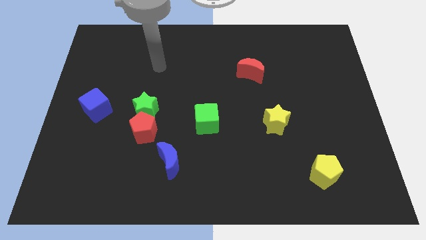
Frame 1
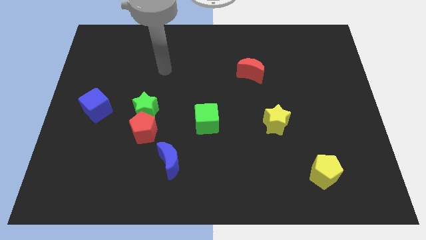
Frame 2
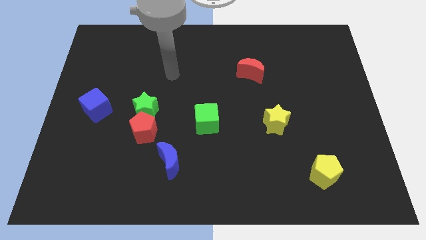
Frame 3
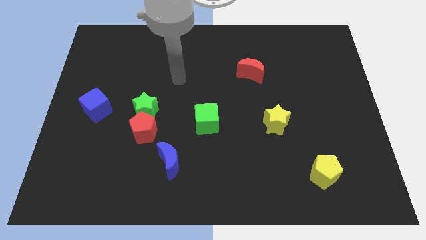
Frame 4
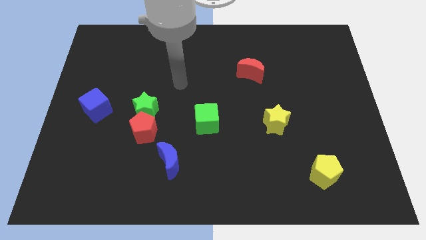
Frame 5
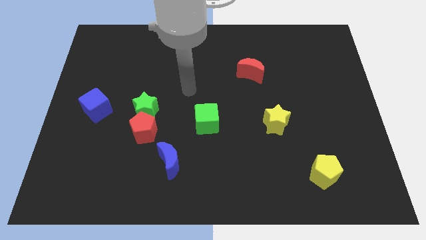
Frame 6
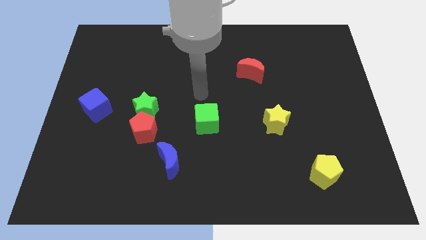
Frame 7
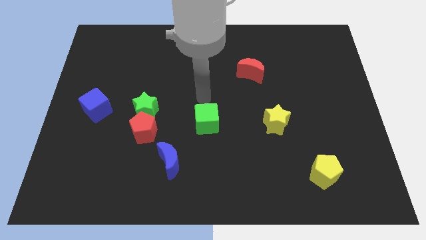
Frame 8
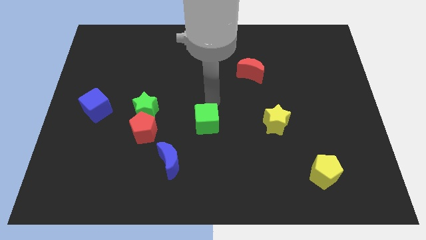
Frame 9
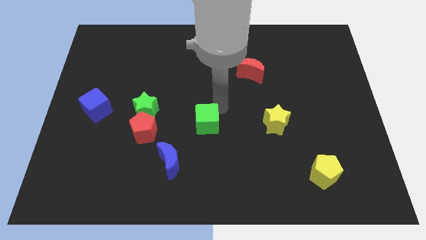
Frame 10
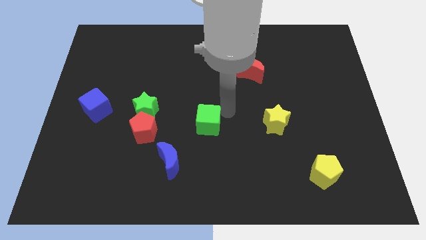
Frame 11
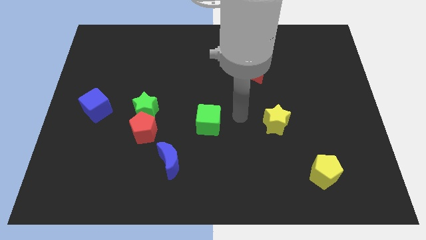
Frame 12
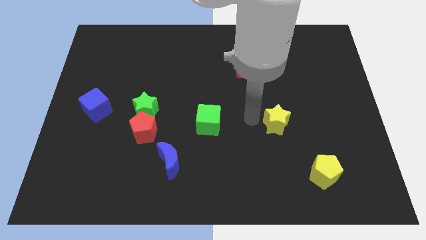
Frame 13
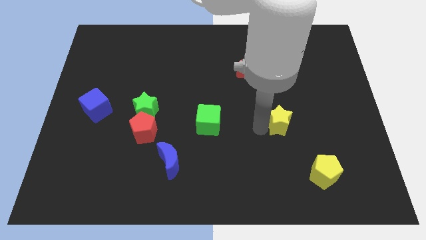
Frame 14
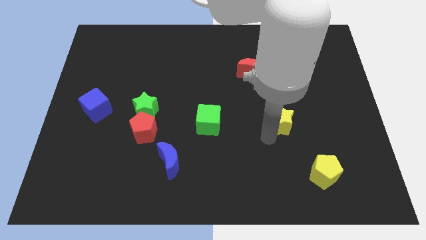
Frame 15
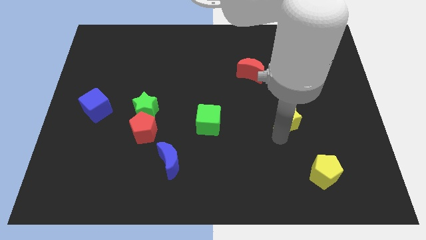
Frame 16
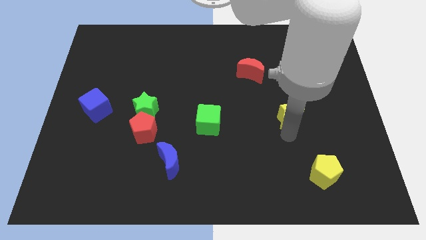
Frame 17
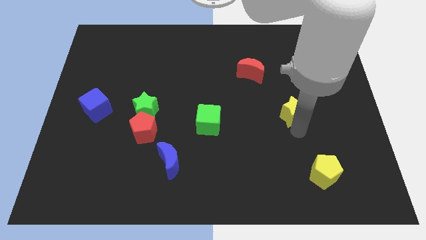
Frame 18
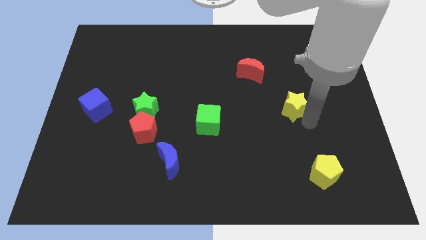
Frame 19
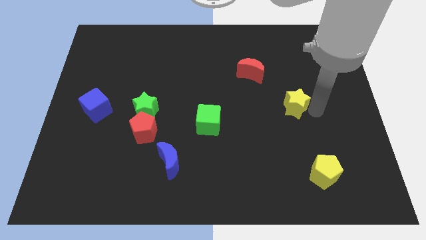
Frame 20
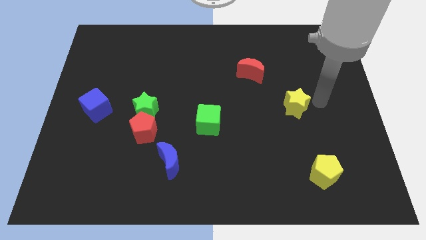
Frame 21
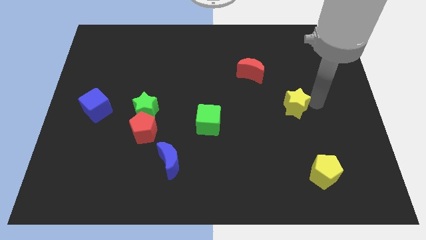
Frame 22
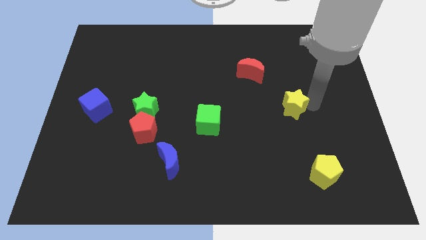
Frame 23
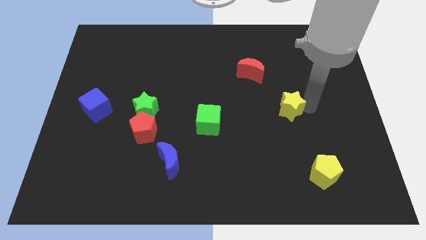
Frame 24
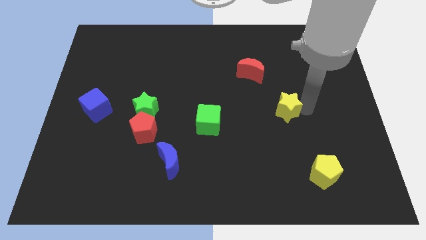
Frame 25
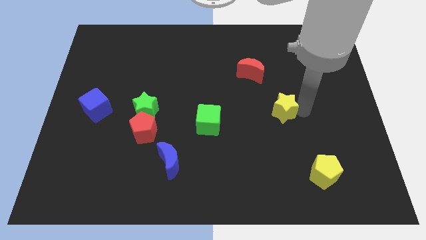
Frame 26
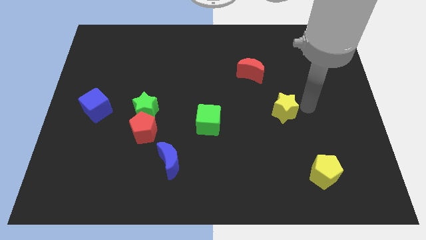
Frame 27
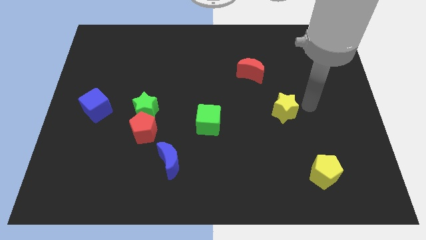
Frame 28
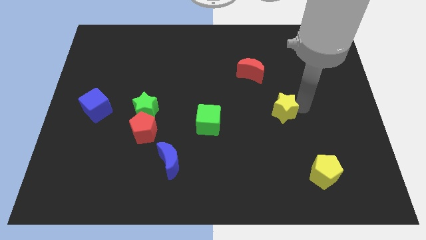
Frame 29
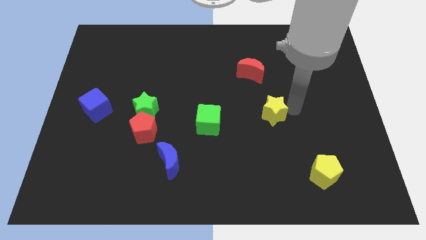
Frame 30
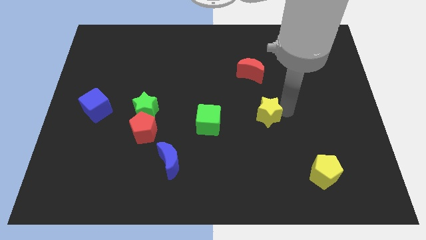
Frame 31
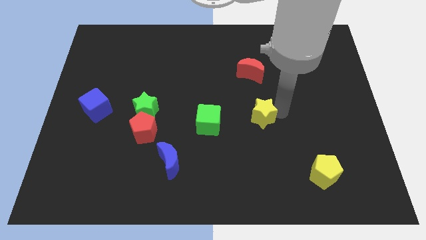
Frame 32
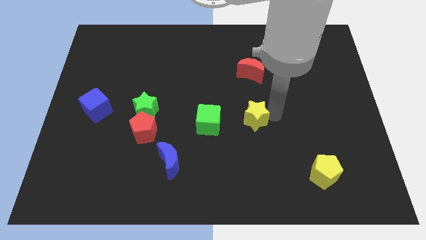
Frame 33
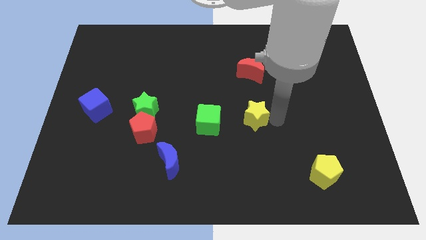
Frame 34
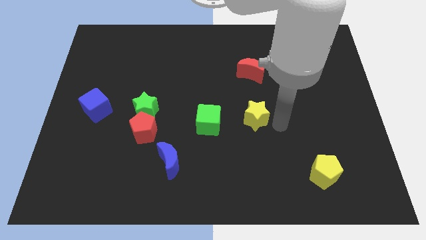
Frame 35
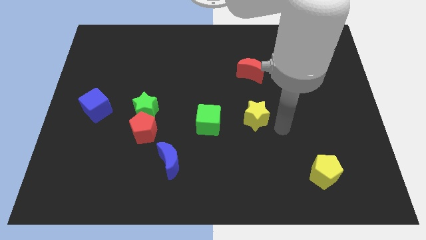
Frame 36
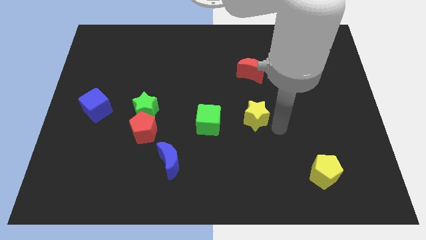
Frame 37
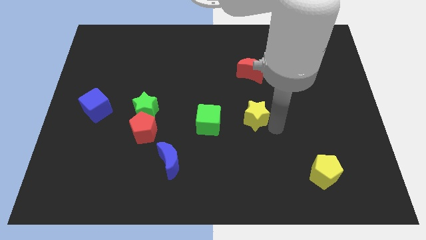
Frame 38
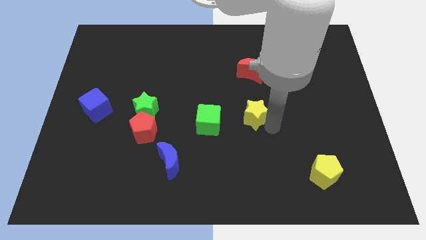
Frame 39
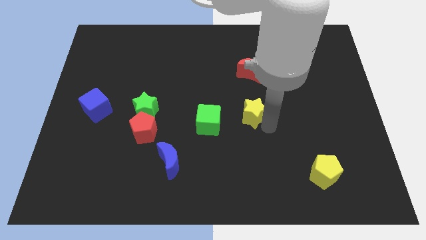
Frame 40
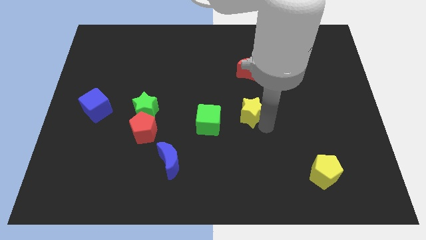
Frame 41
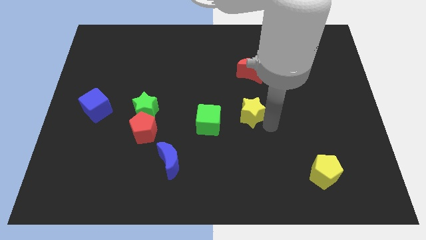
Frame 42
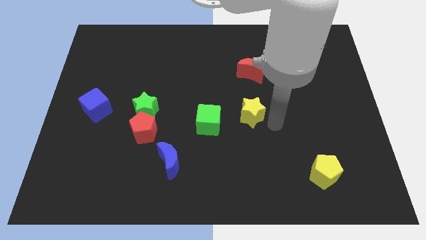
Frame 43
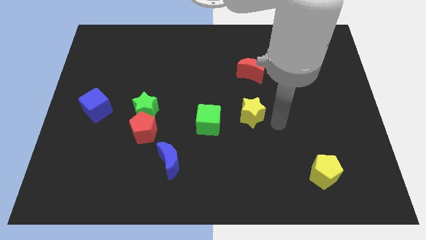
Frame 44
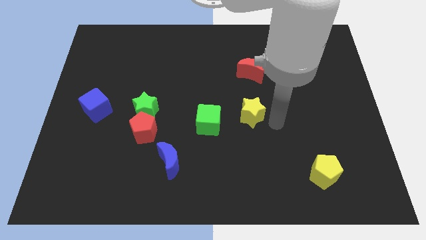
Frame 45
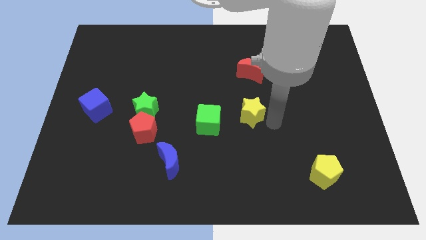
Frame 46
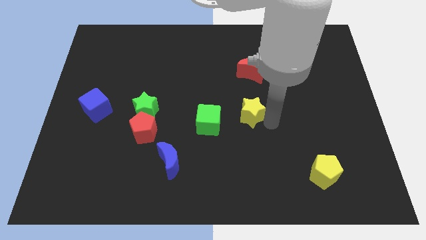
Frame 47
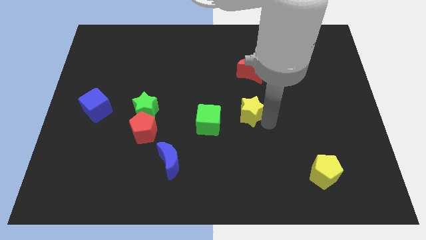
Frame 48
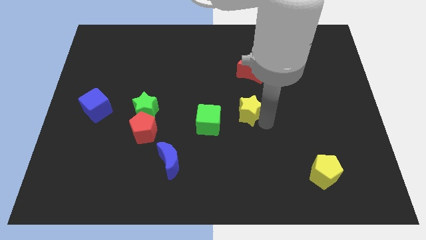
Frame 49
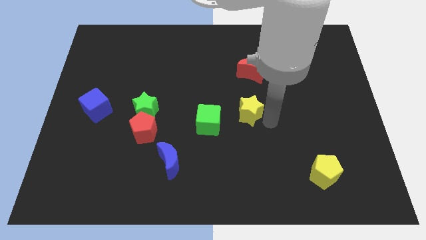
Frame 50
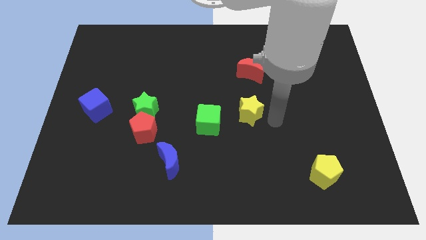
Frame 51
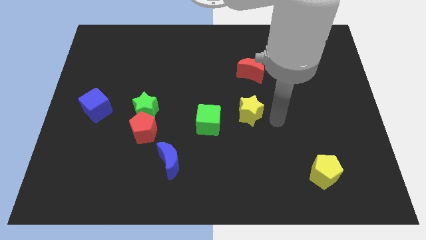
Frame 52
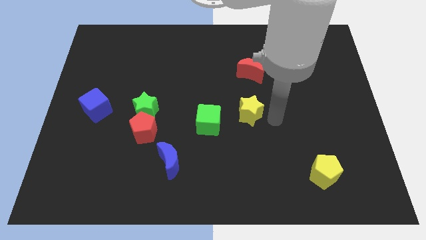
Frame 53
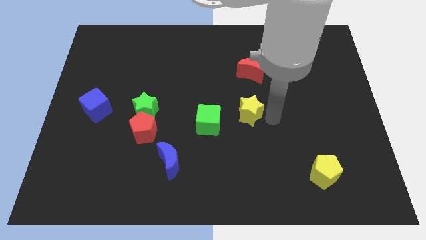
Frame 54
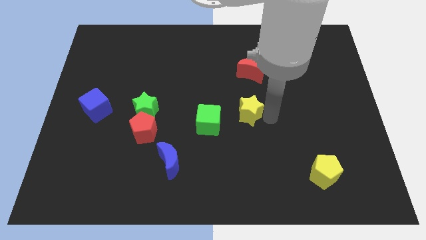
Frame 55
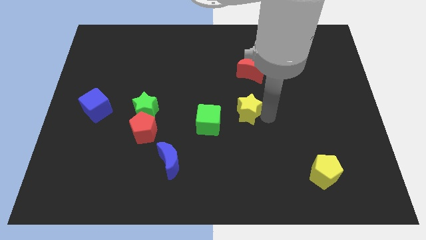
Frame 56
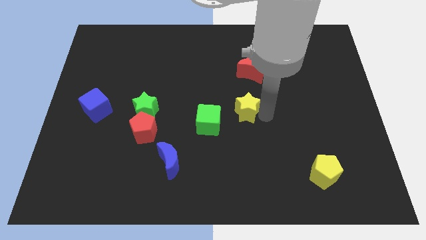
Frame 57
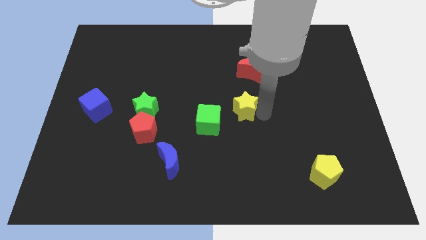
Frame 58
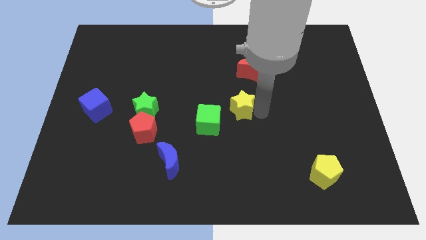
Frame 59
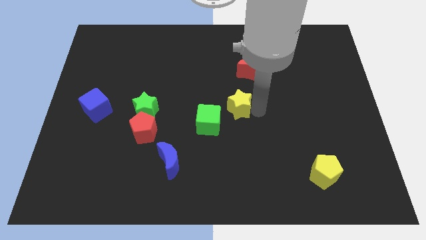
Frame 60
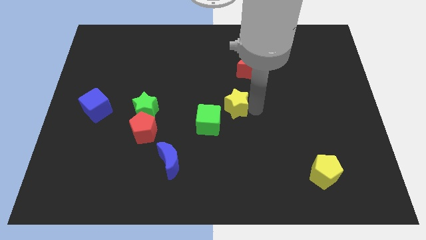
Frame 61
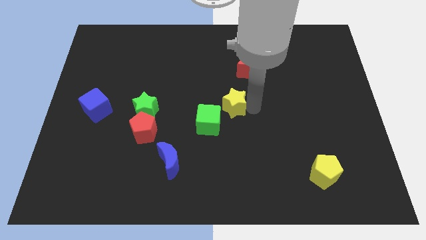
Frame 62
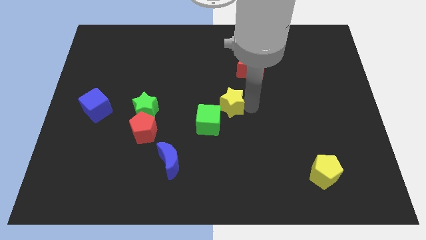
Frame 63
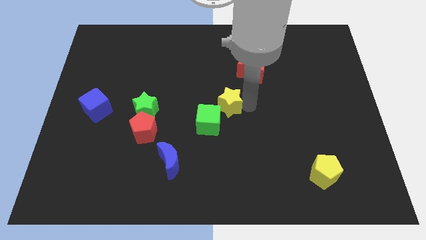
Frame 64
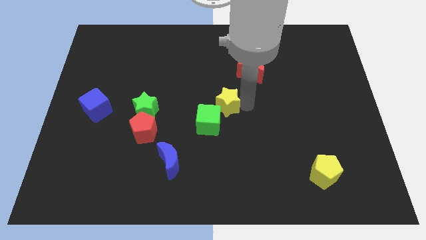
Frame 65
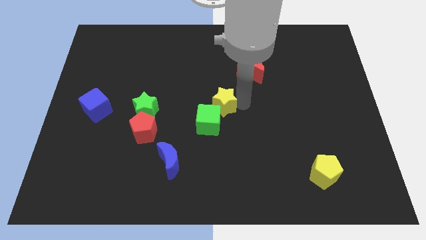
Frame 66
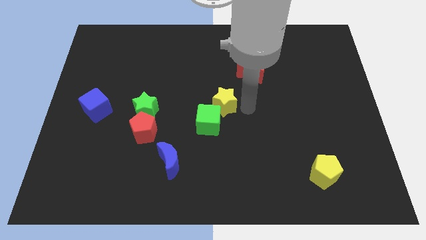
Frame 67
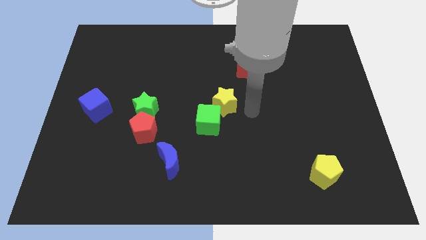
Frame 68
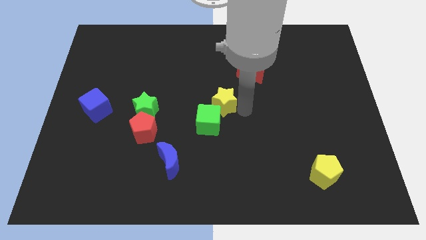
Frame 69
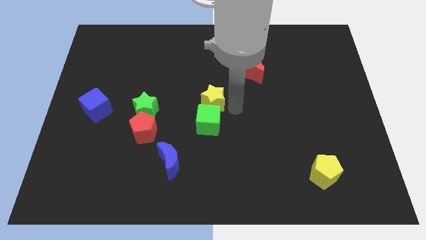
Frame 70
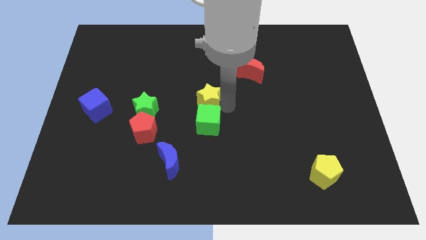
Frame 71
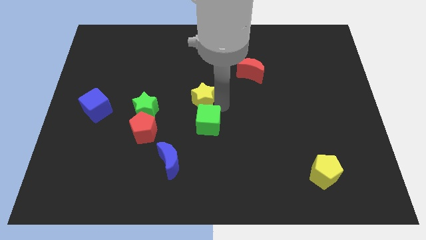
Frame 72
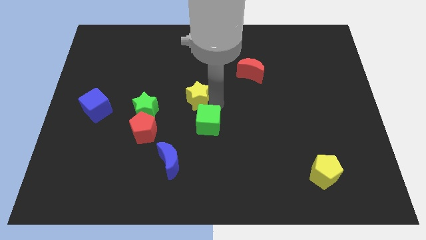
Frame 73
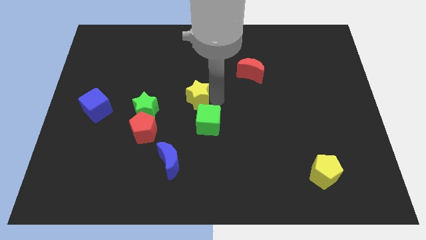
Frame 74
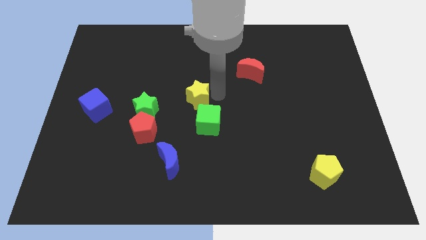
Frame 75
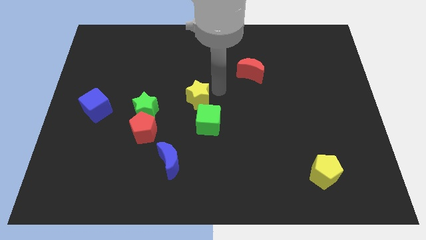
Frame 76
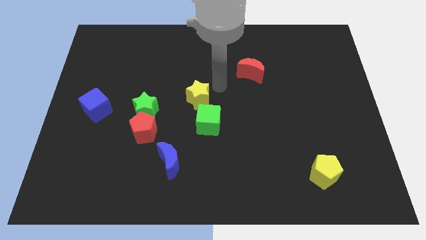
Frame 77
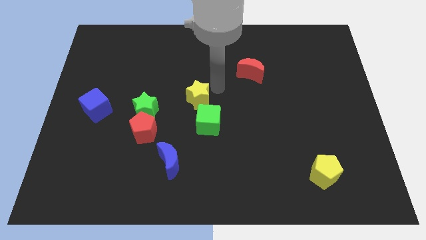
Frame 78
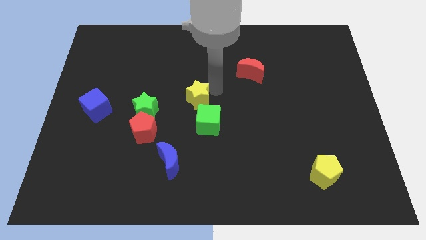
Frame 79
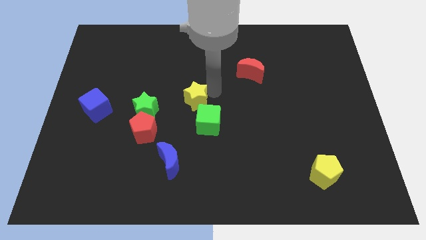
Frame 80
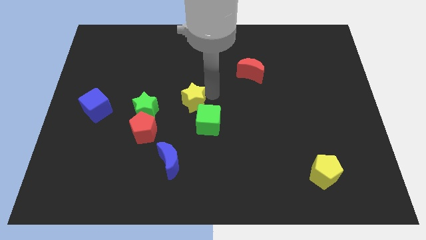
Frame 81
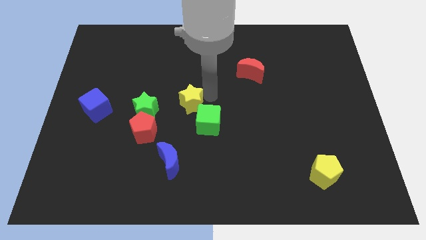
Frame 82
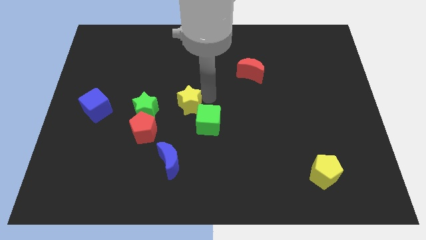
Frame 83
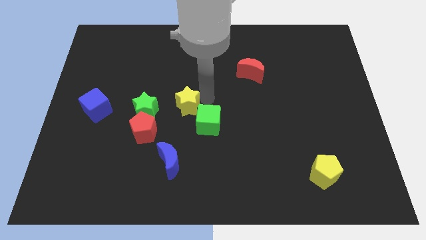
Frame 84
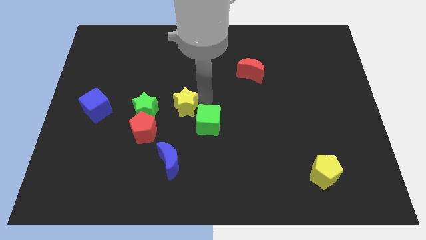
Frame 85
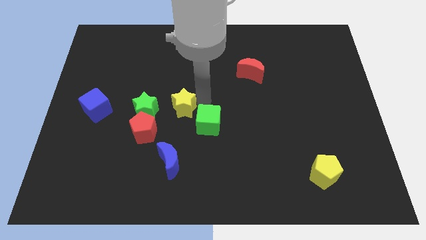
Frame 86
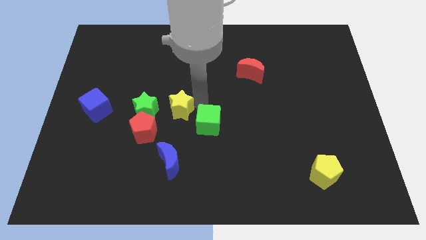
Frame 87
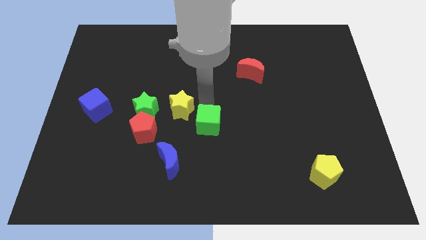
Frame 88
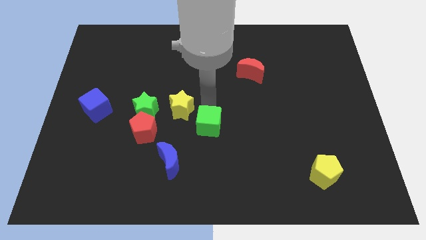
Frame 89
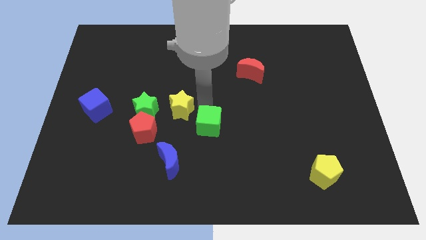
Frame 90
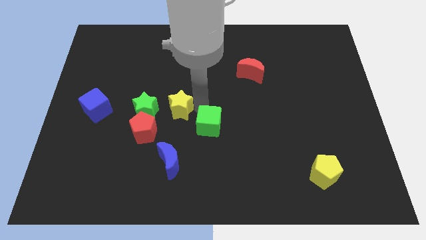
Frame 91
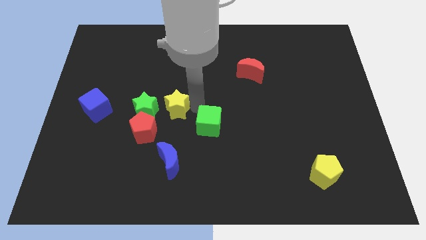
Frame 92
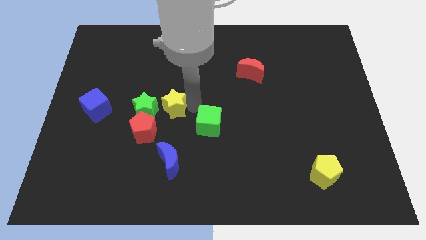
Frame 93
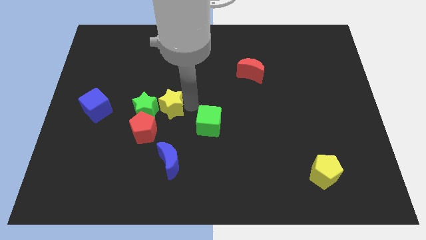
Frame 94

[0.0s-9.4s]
put the yellow star close to the green star
